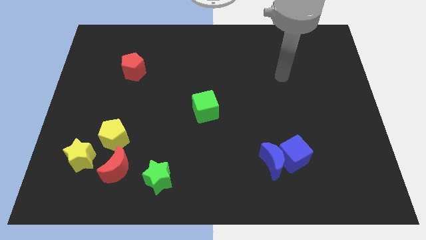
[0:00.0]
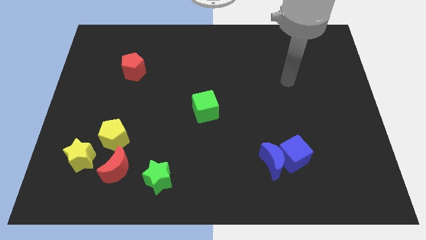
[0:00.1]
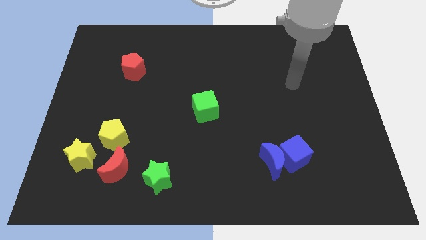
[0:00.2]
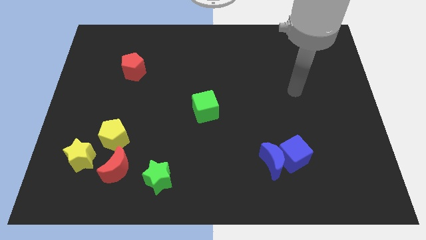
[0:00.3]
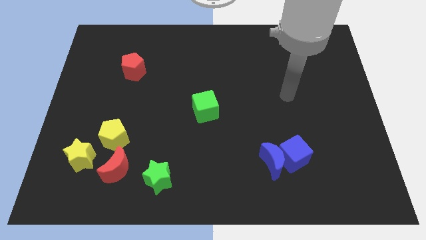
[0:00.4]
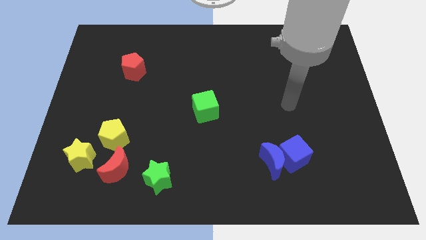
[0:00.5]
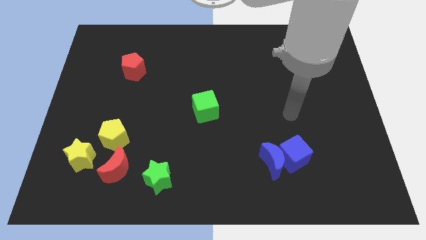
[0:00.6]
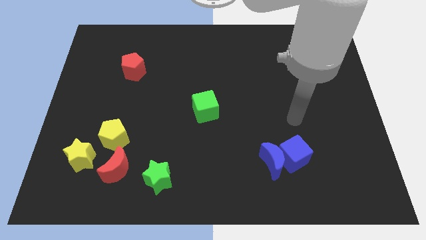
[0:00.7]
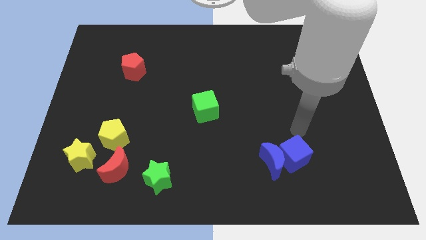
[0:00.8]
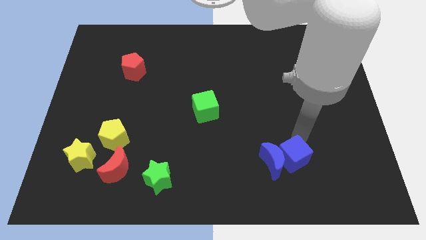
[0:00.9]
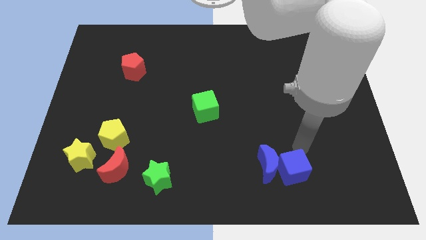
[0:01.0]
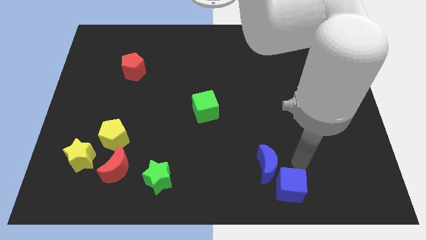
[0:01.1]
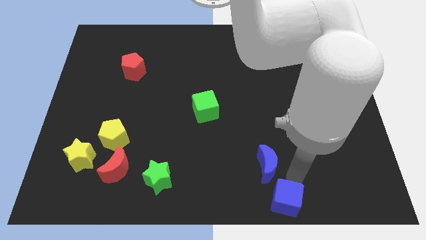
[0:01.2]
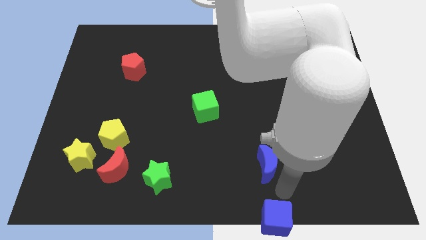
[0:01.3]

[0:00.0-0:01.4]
pull the blue moon apart from the blue cube

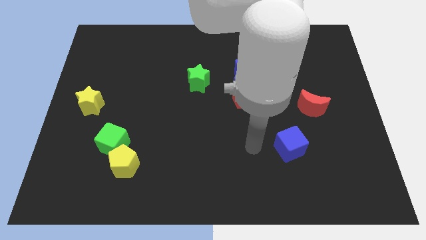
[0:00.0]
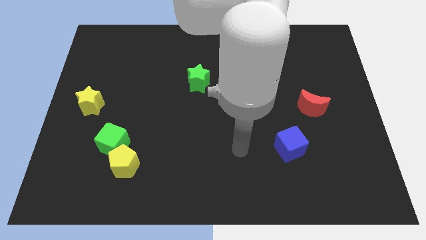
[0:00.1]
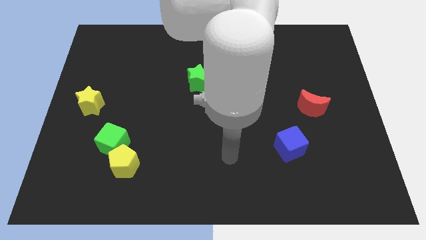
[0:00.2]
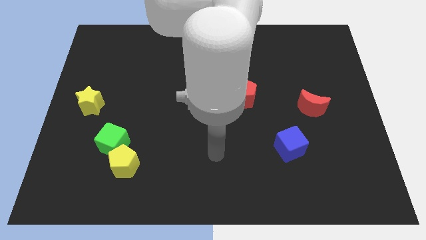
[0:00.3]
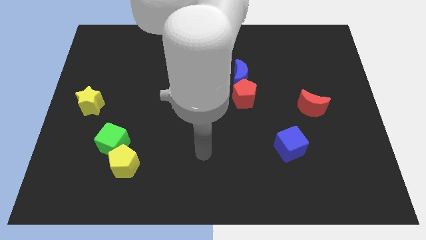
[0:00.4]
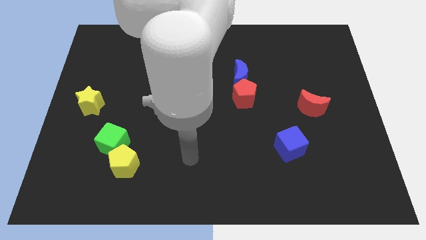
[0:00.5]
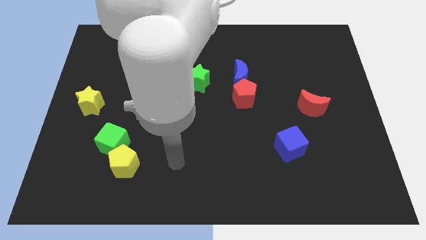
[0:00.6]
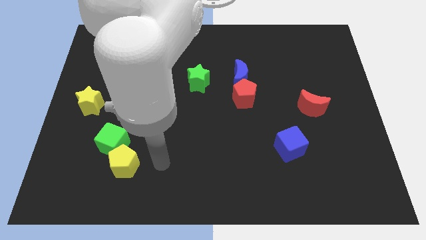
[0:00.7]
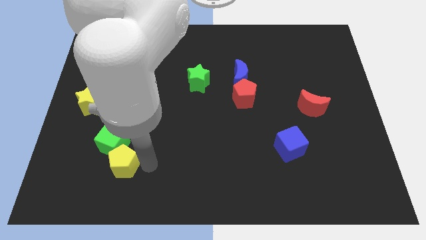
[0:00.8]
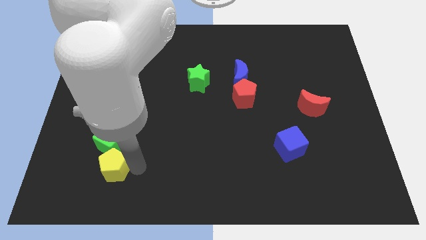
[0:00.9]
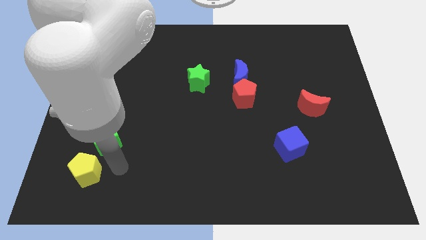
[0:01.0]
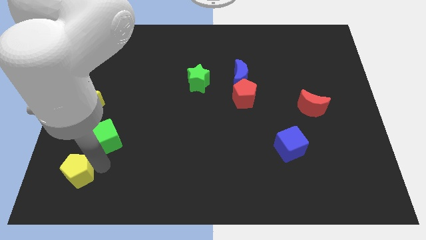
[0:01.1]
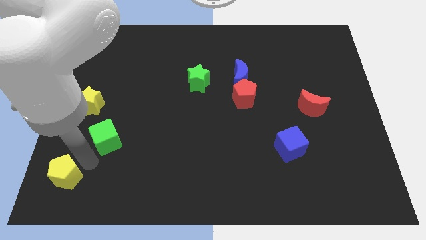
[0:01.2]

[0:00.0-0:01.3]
move the green cube away from the yellow pentagon

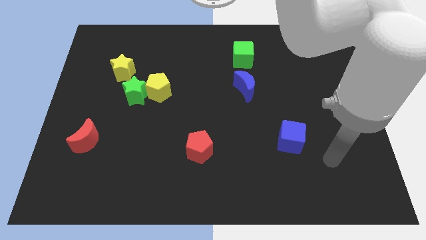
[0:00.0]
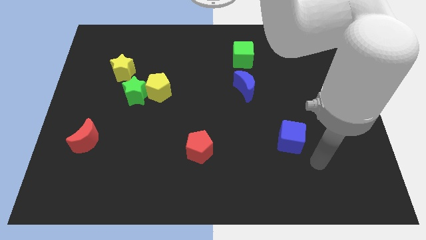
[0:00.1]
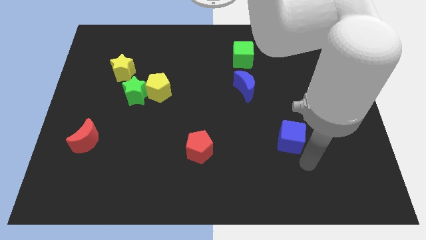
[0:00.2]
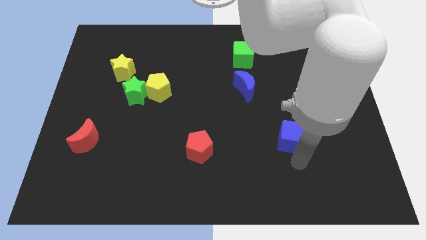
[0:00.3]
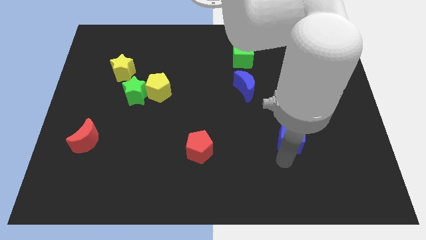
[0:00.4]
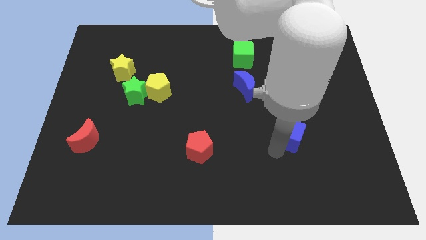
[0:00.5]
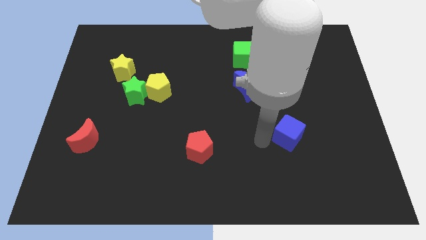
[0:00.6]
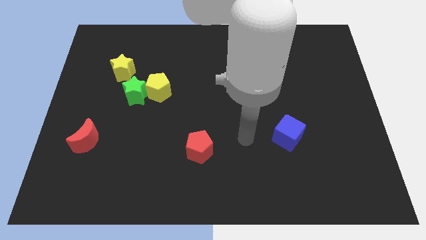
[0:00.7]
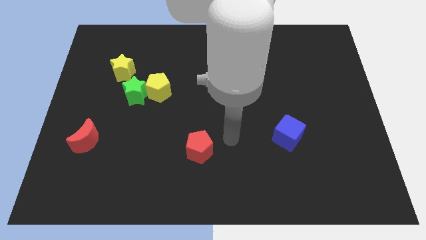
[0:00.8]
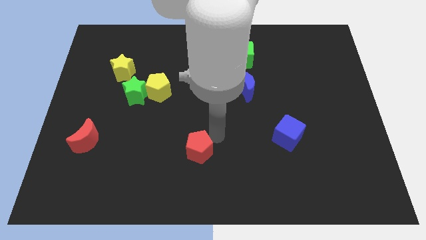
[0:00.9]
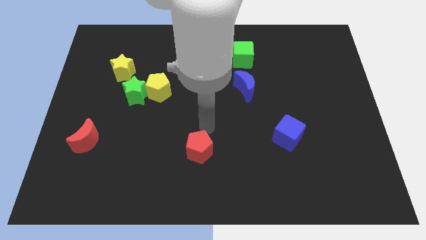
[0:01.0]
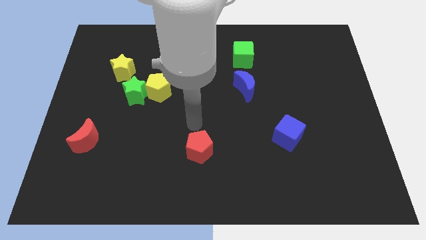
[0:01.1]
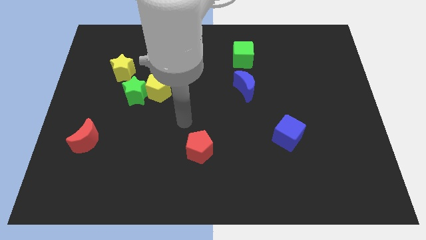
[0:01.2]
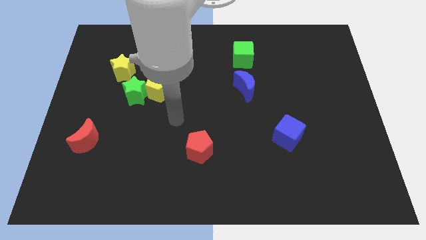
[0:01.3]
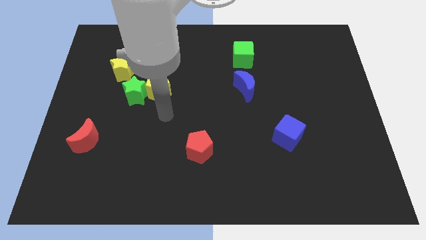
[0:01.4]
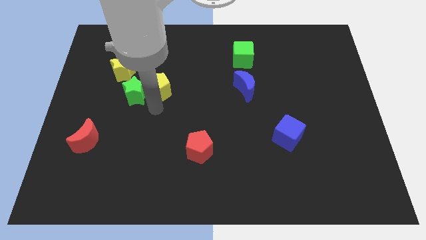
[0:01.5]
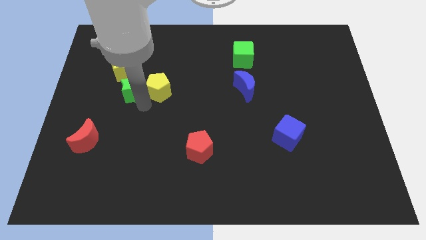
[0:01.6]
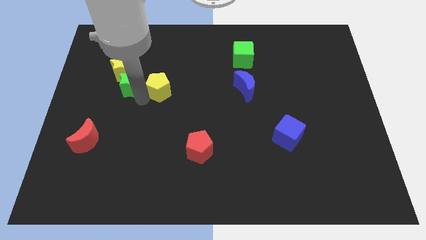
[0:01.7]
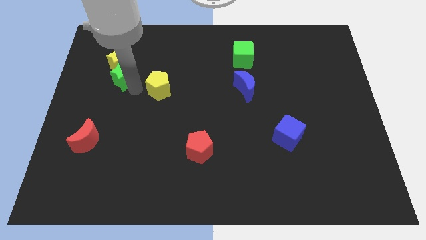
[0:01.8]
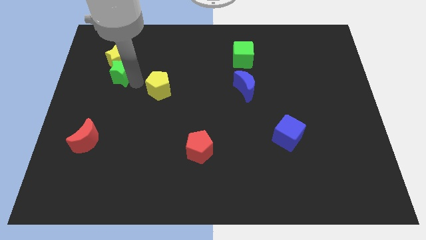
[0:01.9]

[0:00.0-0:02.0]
separate the yellow pentagon from the green star

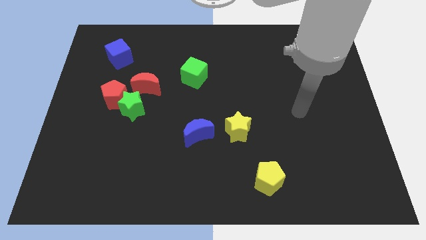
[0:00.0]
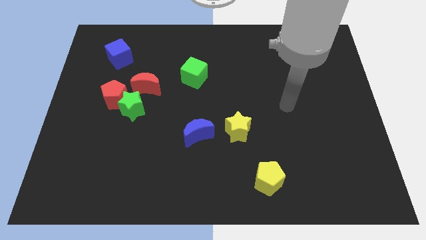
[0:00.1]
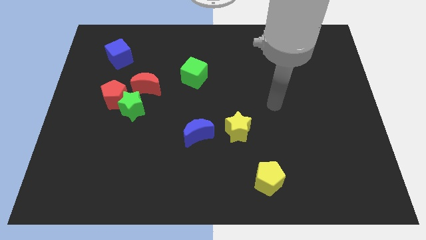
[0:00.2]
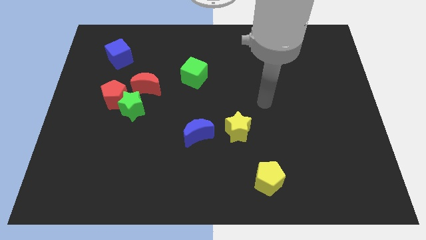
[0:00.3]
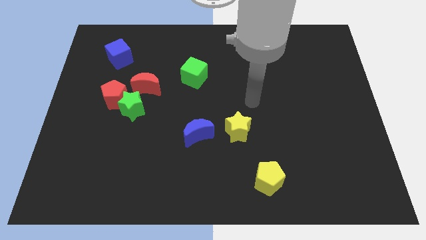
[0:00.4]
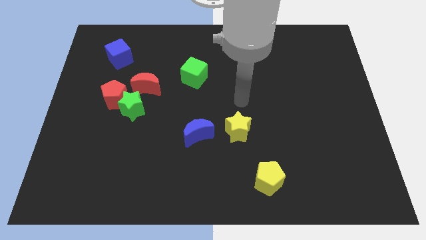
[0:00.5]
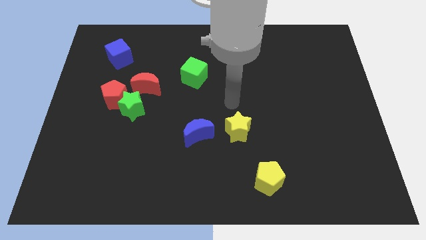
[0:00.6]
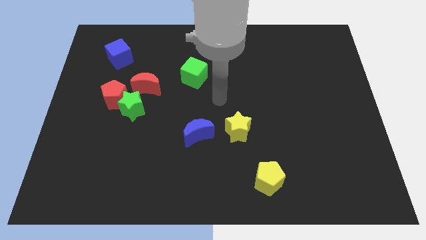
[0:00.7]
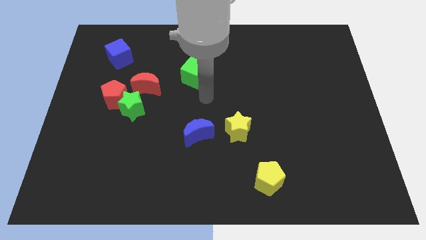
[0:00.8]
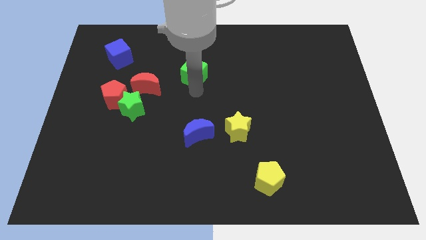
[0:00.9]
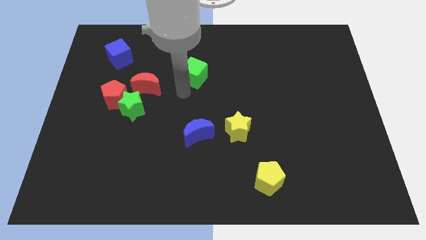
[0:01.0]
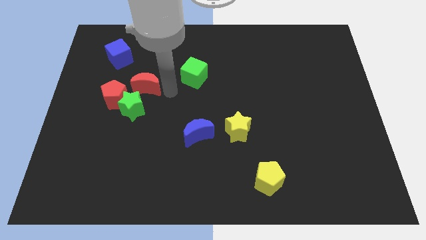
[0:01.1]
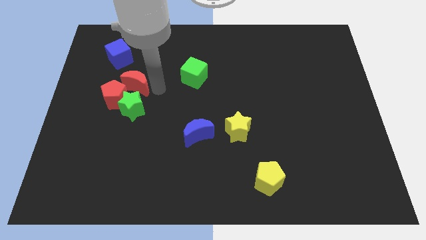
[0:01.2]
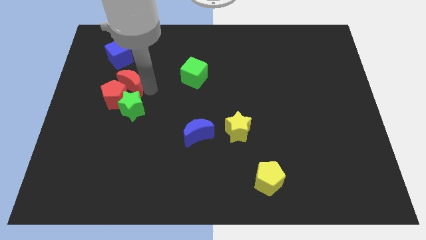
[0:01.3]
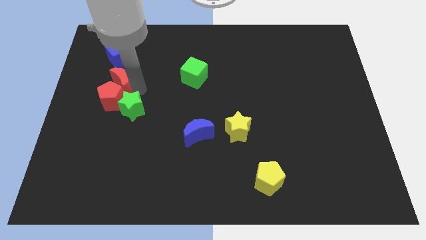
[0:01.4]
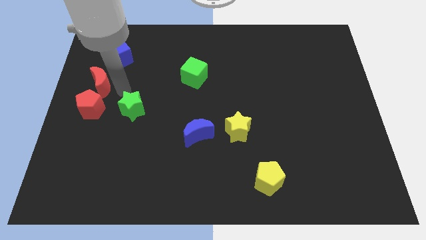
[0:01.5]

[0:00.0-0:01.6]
separate the green star from the red pentagon and red moon

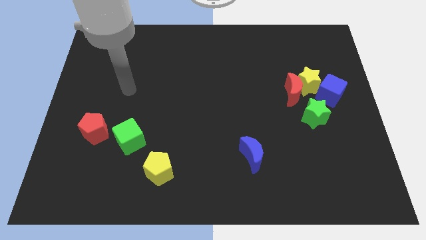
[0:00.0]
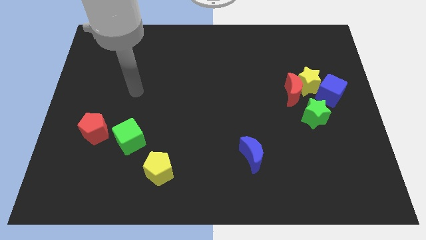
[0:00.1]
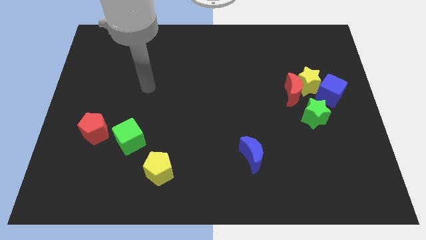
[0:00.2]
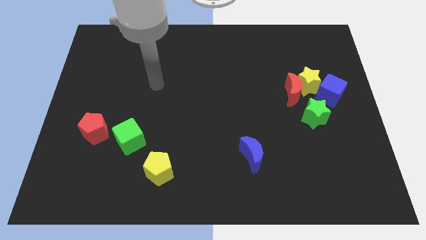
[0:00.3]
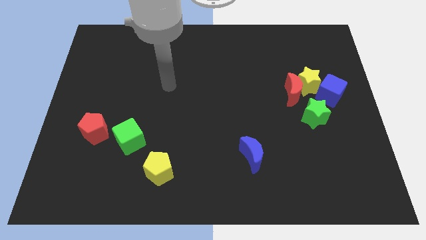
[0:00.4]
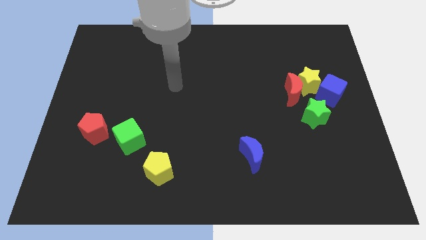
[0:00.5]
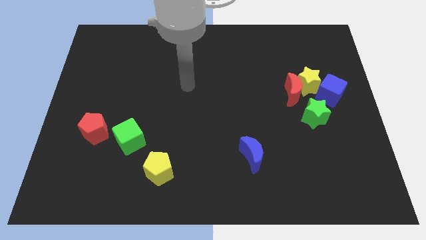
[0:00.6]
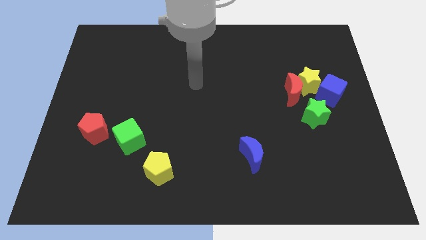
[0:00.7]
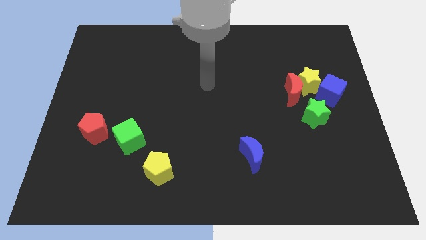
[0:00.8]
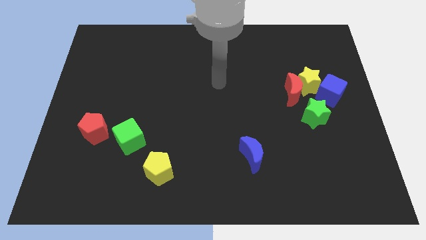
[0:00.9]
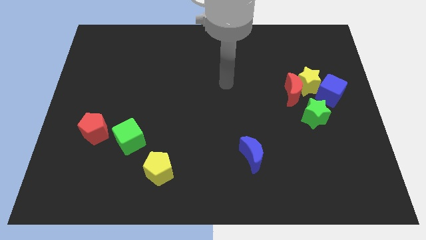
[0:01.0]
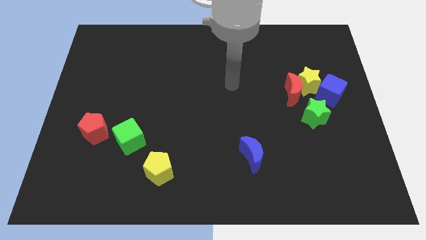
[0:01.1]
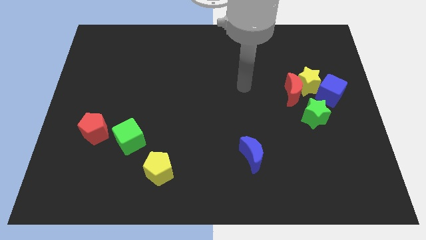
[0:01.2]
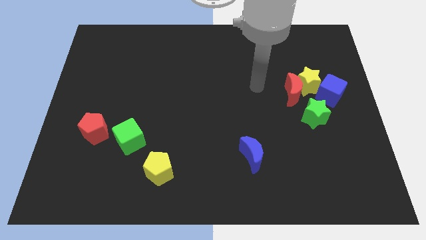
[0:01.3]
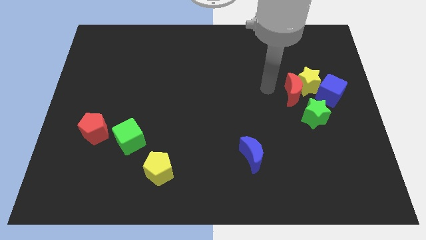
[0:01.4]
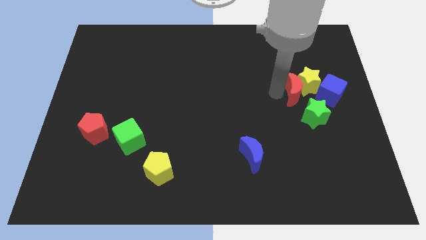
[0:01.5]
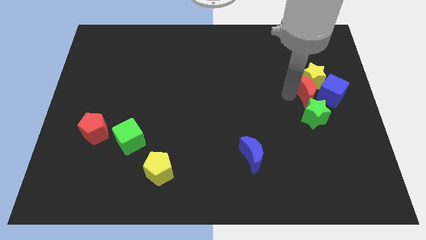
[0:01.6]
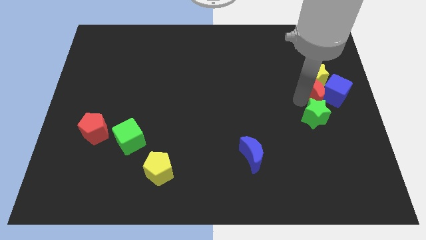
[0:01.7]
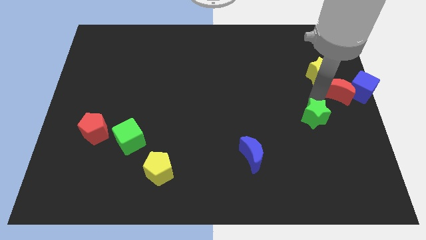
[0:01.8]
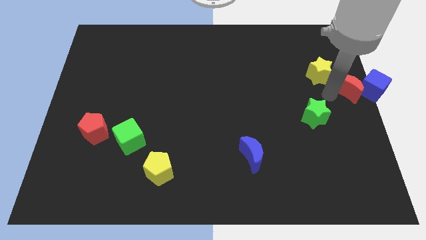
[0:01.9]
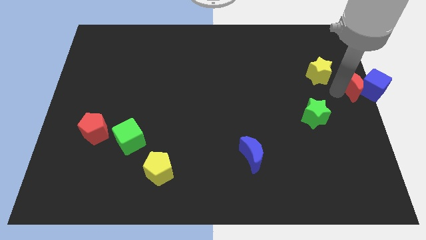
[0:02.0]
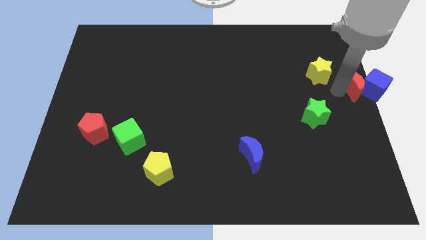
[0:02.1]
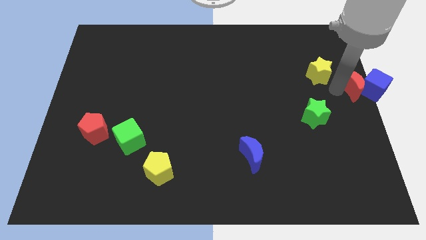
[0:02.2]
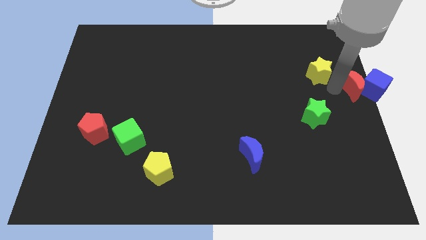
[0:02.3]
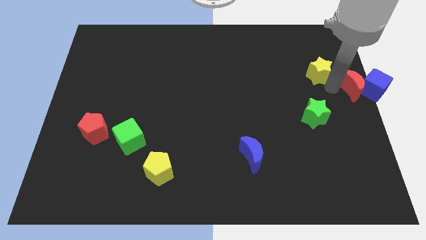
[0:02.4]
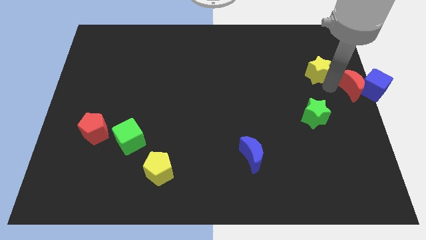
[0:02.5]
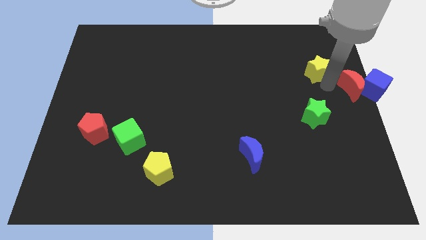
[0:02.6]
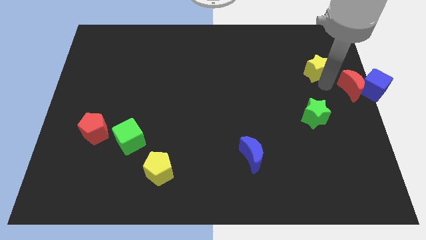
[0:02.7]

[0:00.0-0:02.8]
separate the yellow star from the clump
